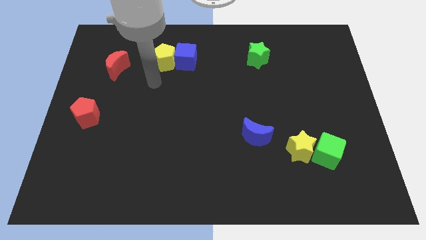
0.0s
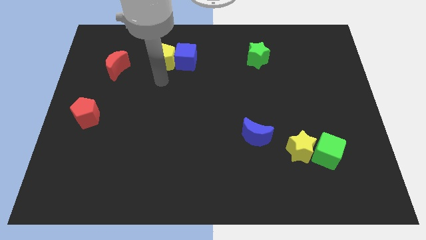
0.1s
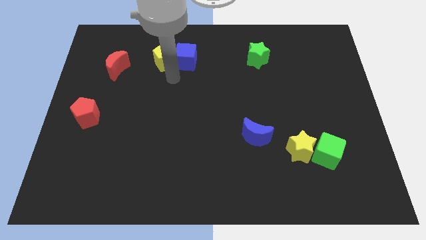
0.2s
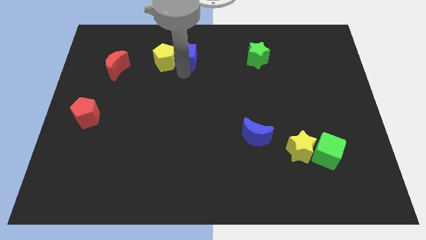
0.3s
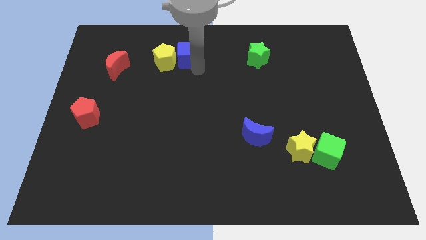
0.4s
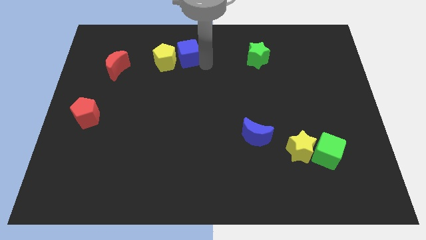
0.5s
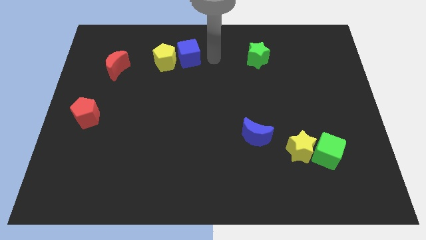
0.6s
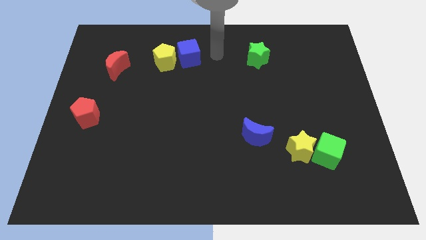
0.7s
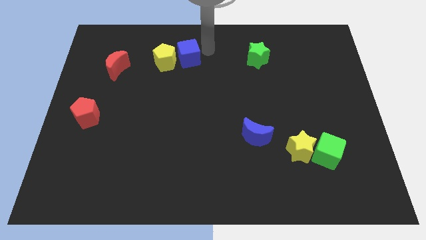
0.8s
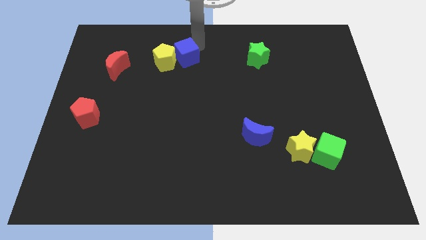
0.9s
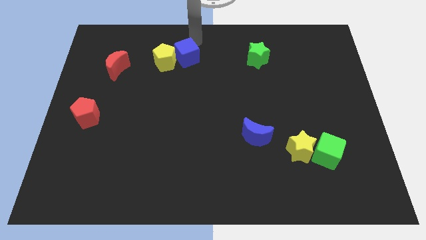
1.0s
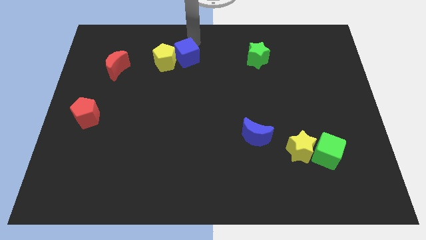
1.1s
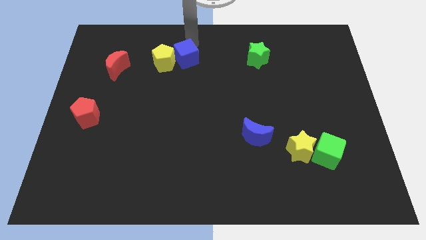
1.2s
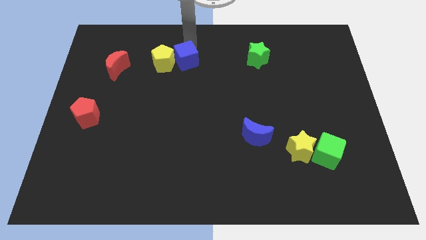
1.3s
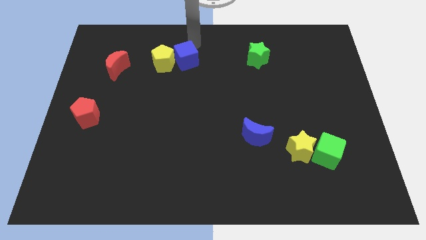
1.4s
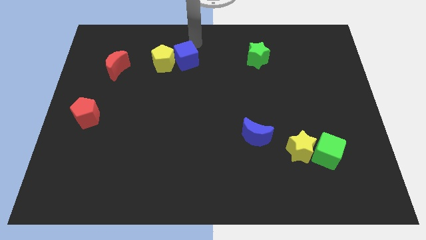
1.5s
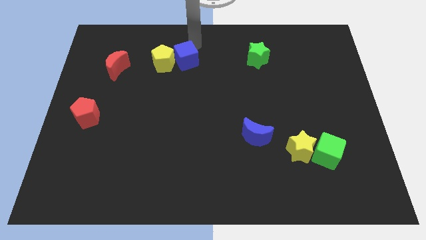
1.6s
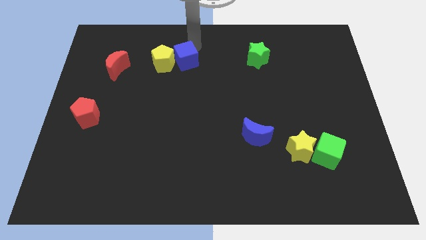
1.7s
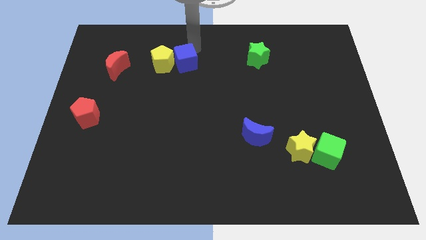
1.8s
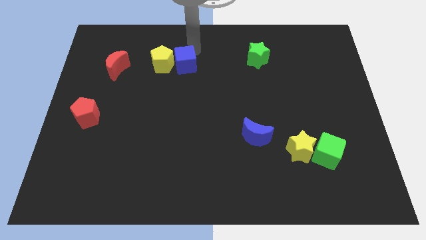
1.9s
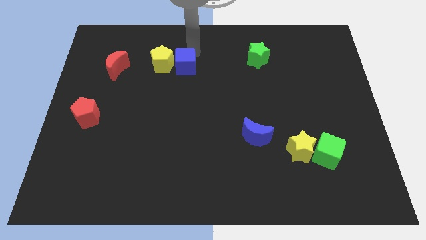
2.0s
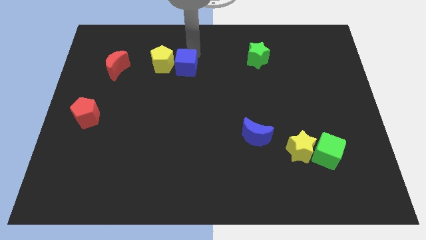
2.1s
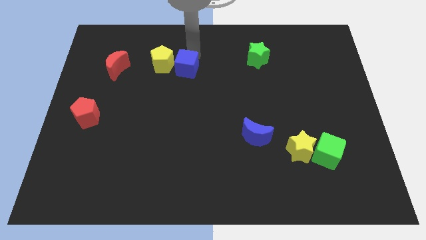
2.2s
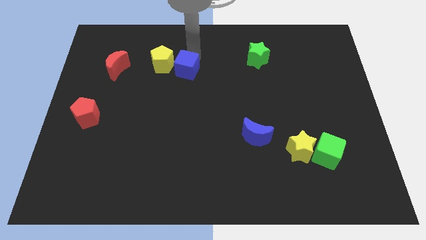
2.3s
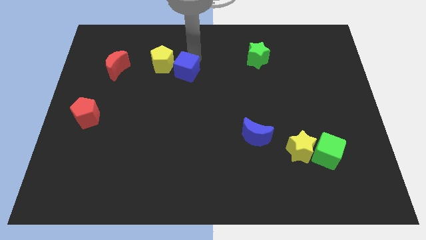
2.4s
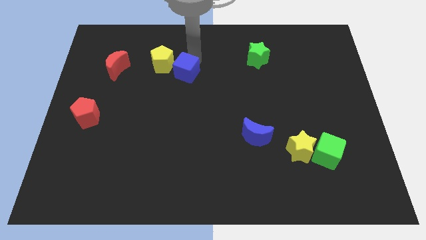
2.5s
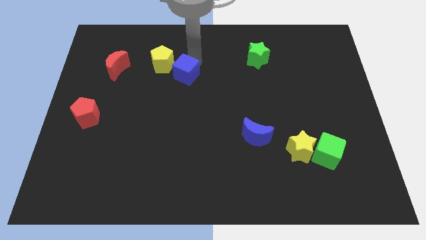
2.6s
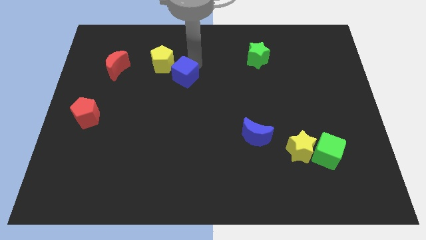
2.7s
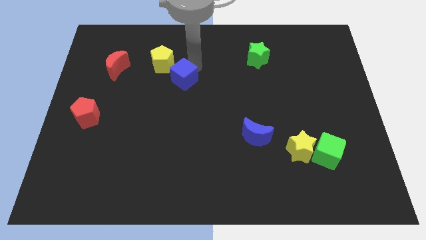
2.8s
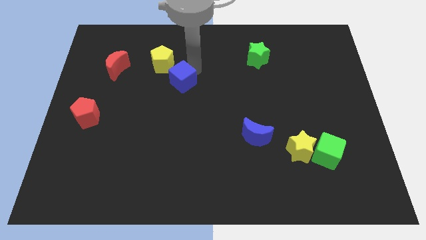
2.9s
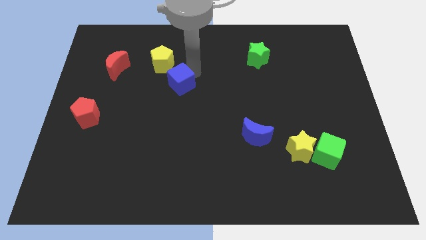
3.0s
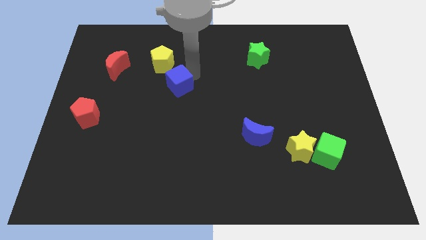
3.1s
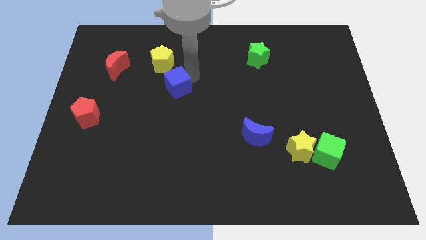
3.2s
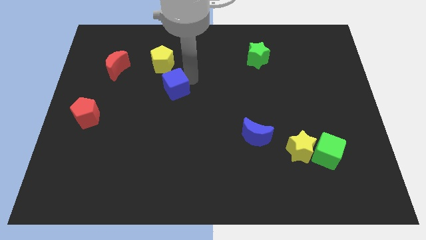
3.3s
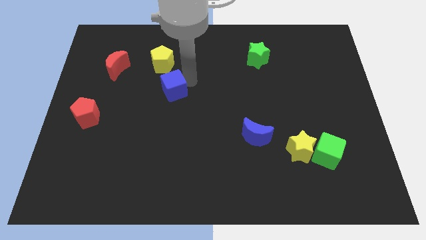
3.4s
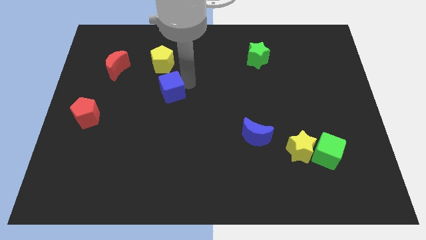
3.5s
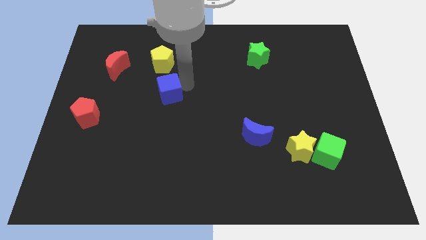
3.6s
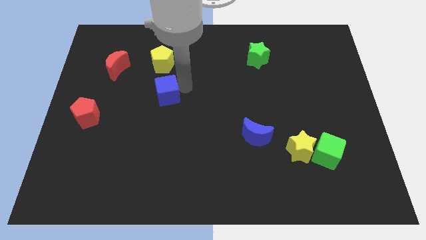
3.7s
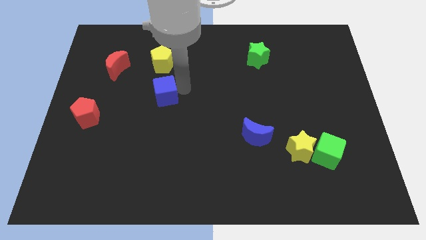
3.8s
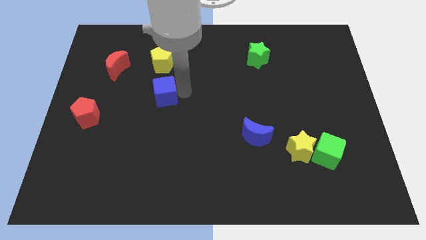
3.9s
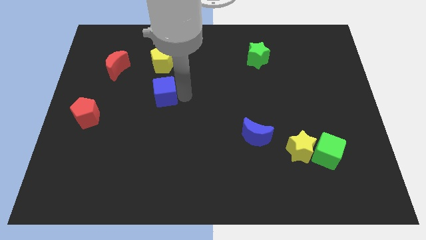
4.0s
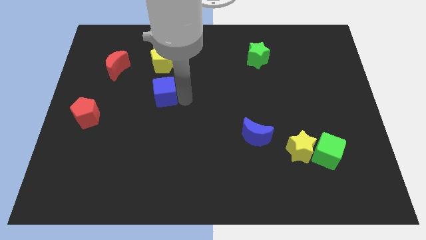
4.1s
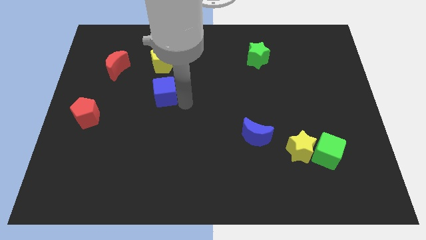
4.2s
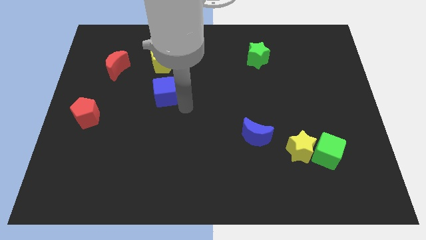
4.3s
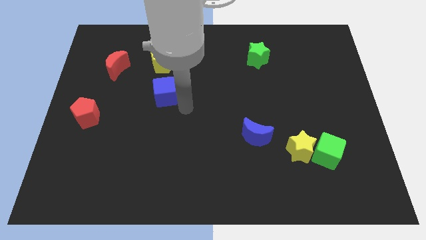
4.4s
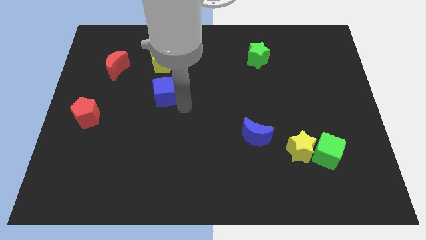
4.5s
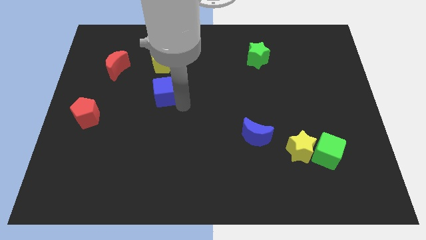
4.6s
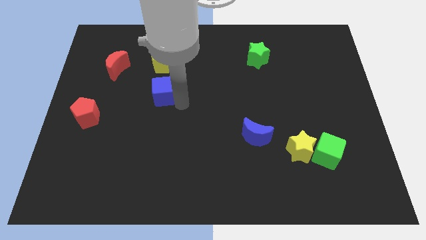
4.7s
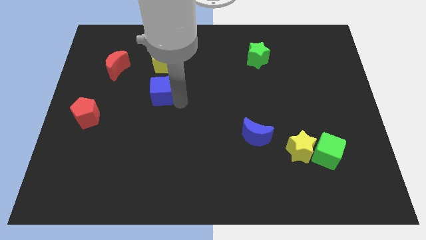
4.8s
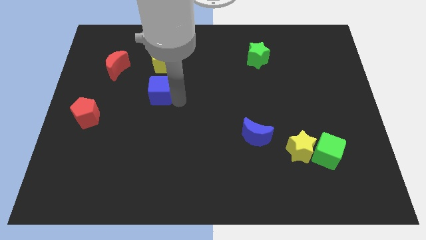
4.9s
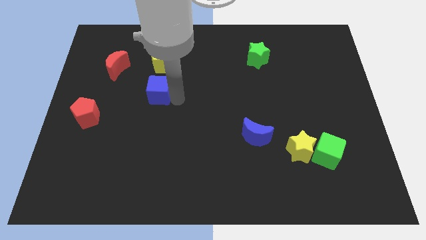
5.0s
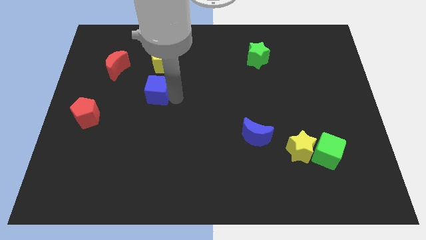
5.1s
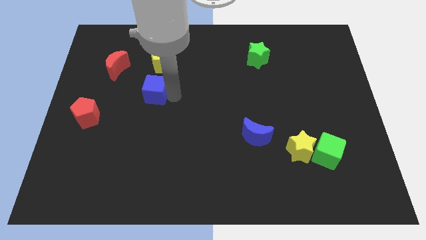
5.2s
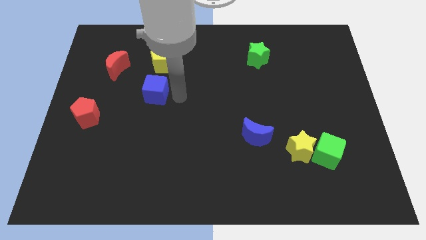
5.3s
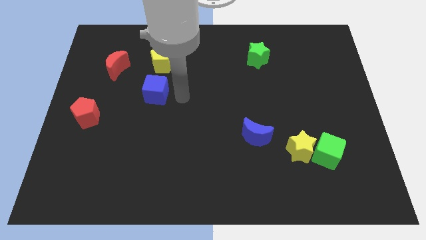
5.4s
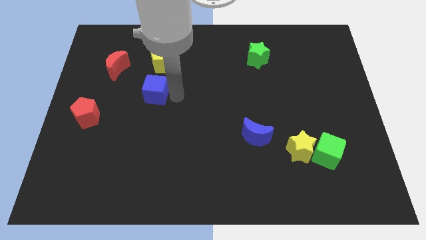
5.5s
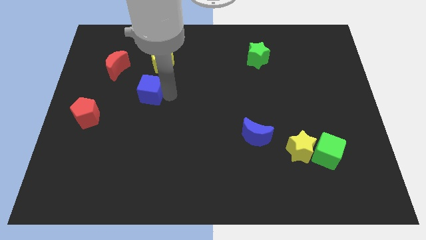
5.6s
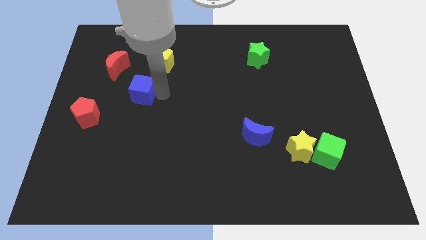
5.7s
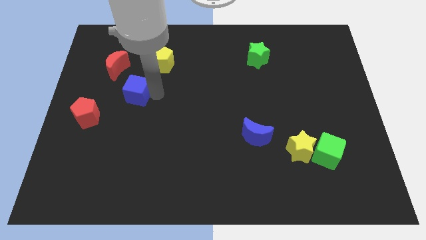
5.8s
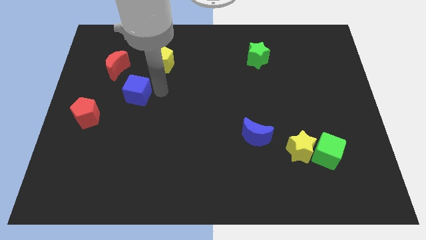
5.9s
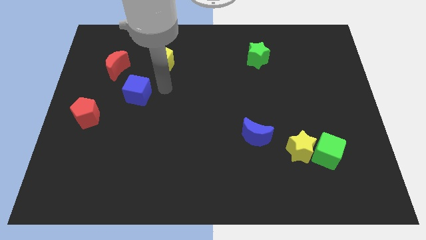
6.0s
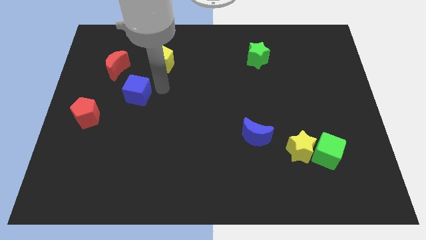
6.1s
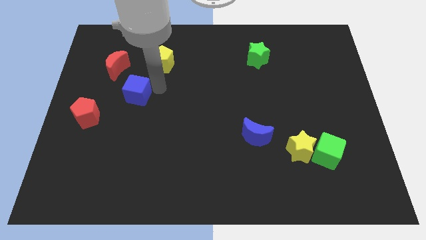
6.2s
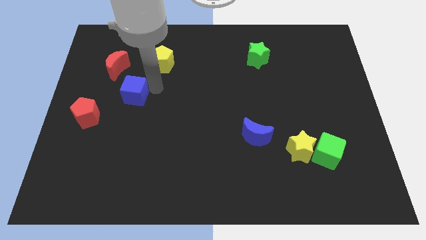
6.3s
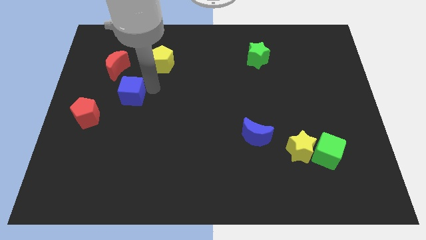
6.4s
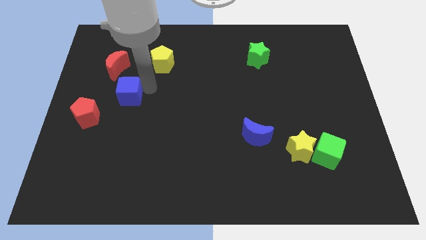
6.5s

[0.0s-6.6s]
put the blue cube to the bottom of the red moon

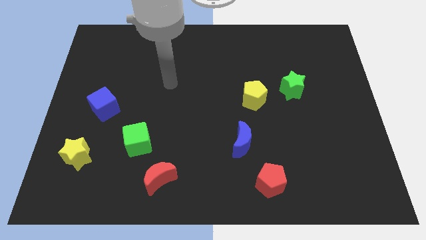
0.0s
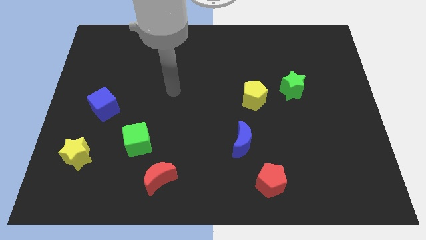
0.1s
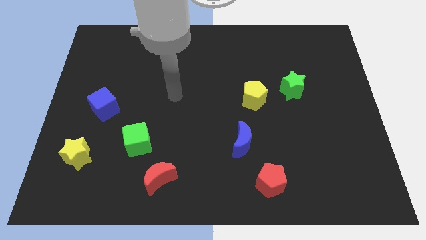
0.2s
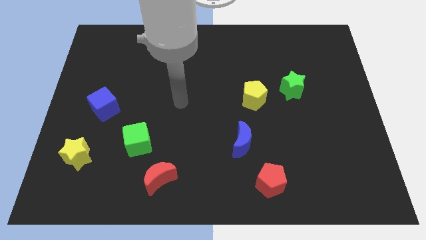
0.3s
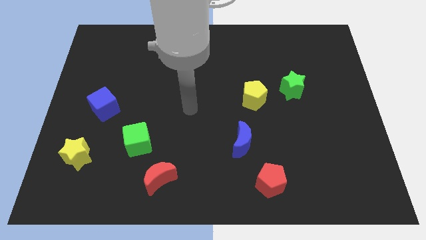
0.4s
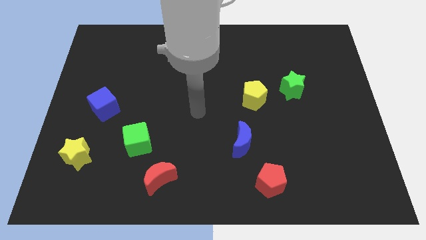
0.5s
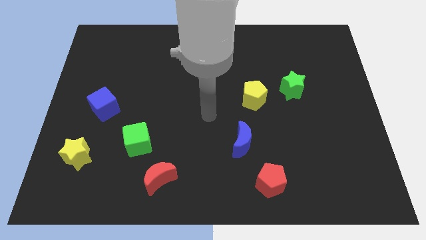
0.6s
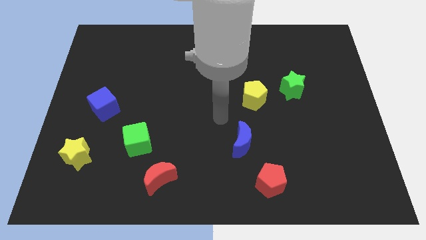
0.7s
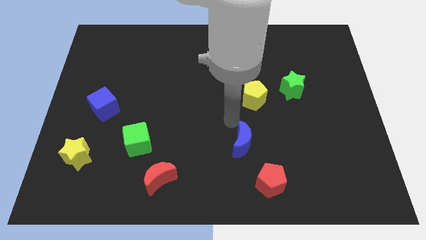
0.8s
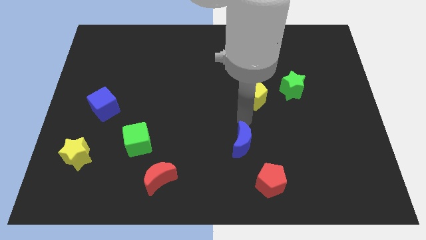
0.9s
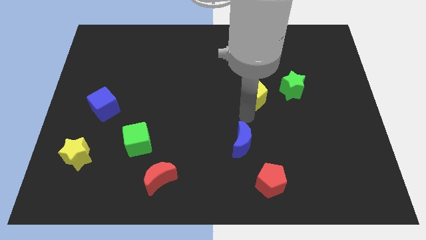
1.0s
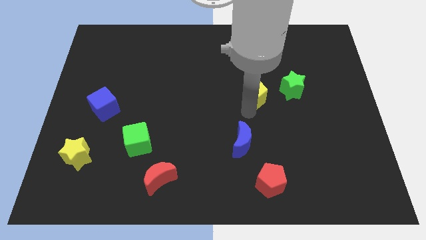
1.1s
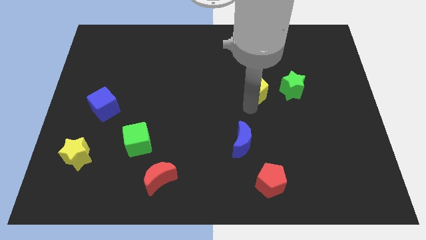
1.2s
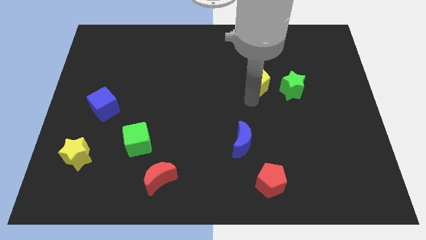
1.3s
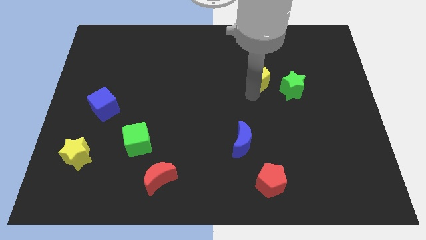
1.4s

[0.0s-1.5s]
put the yellow pentagon diagonally up and to the left of the green star
